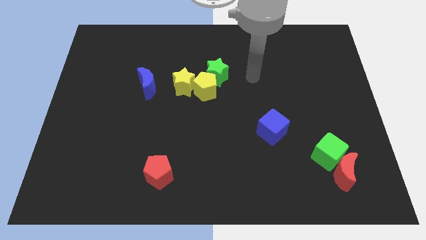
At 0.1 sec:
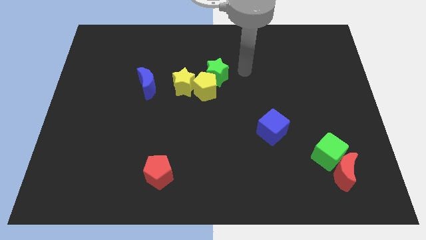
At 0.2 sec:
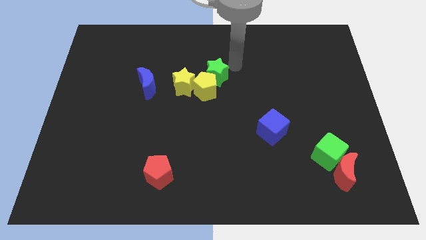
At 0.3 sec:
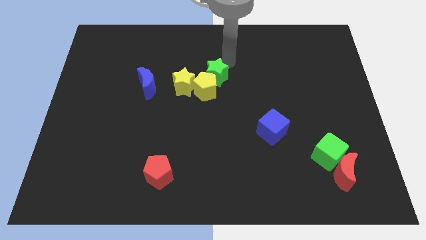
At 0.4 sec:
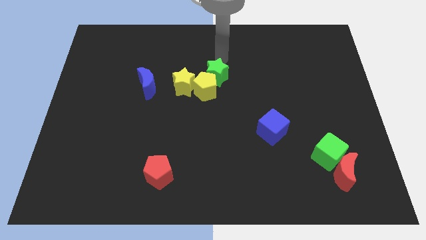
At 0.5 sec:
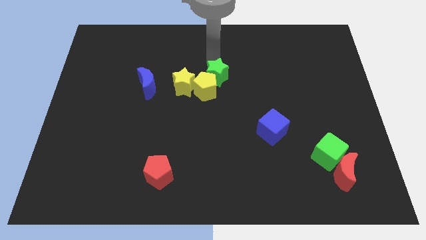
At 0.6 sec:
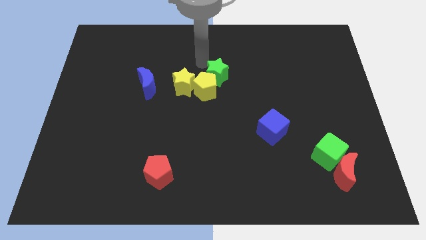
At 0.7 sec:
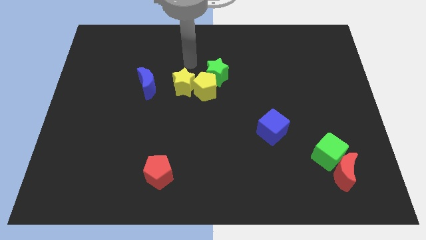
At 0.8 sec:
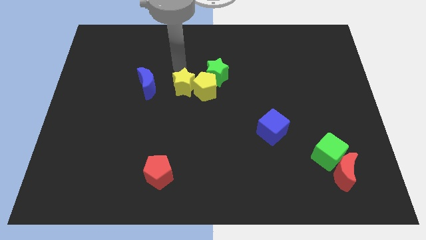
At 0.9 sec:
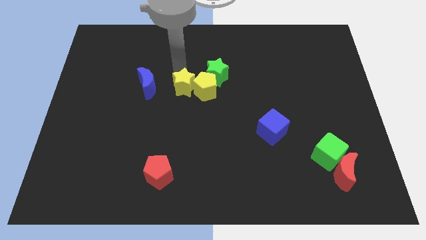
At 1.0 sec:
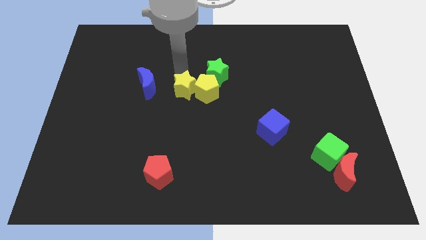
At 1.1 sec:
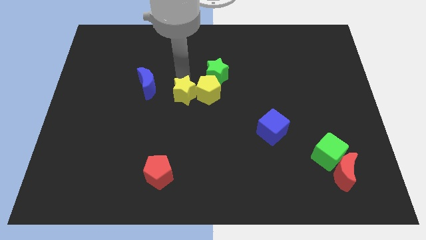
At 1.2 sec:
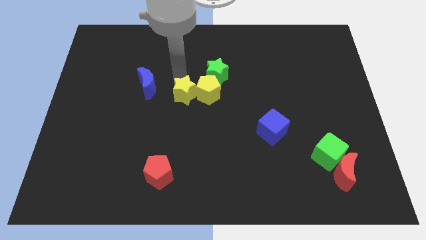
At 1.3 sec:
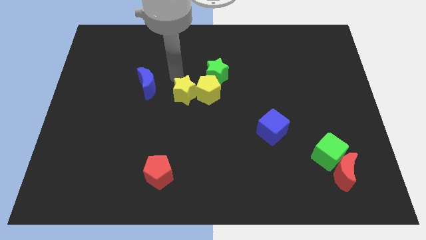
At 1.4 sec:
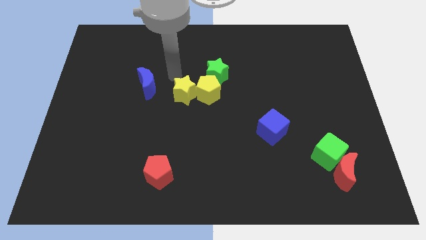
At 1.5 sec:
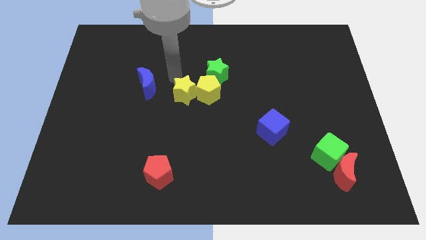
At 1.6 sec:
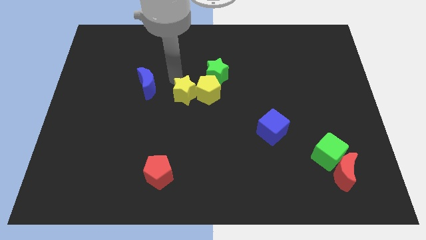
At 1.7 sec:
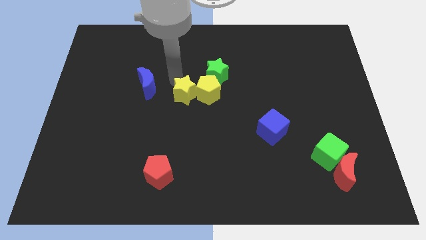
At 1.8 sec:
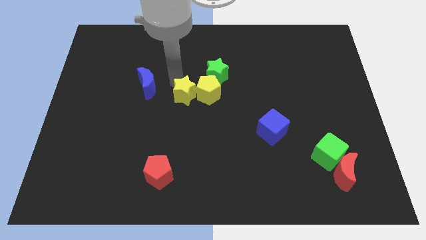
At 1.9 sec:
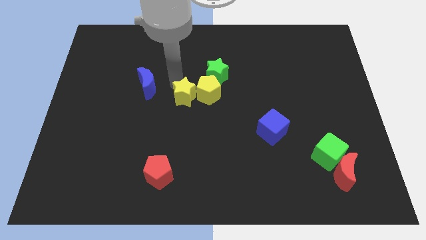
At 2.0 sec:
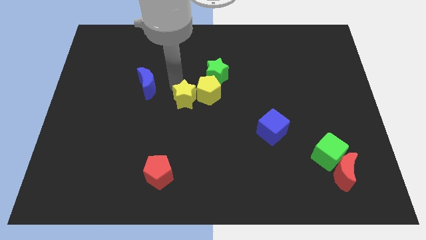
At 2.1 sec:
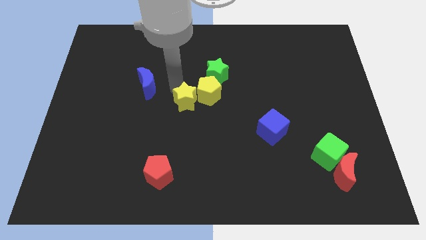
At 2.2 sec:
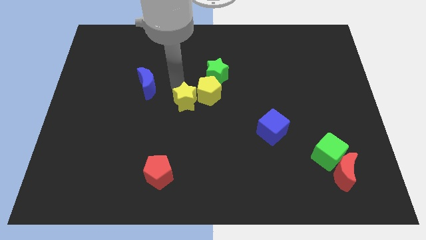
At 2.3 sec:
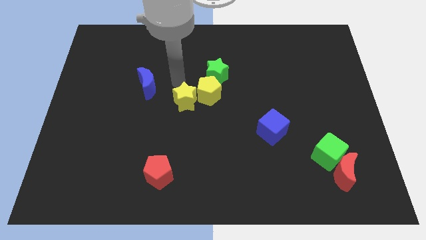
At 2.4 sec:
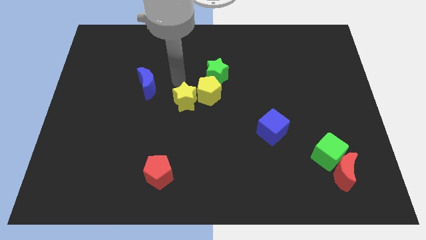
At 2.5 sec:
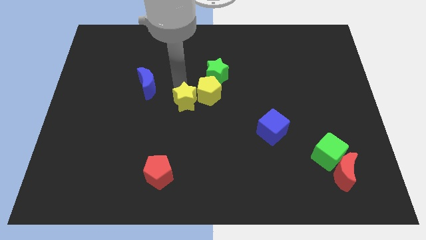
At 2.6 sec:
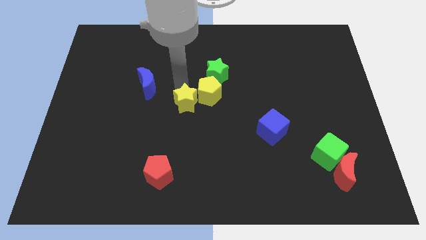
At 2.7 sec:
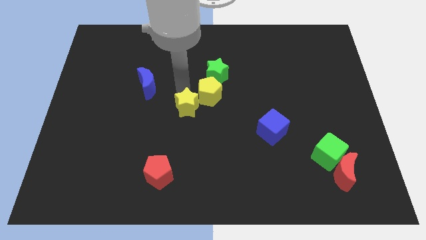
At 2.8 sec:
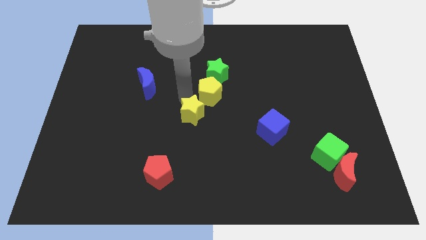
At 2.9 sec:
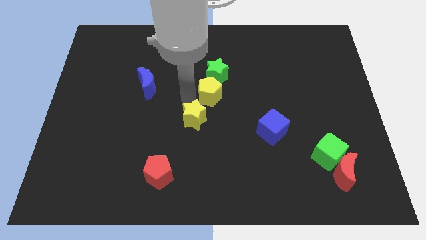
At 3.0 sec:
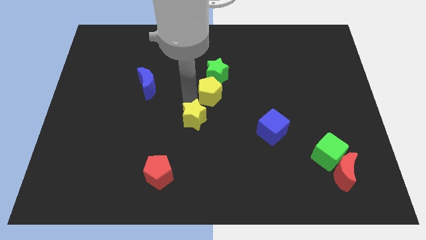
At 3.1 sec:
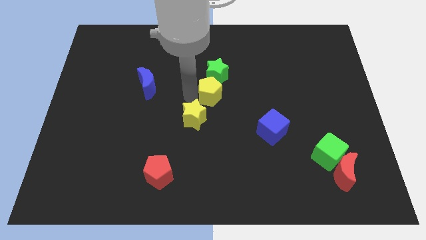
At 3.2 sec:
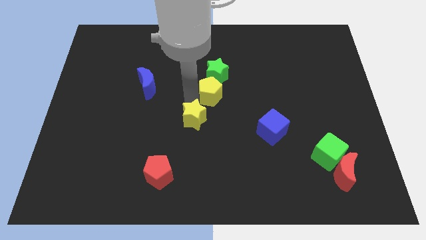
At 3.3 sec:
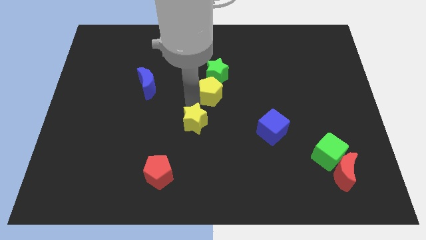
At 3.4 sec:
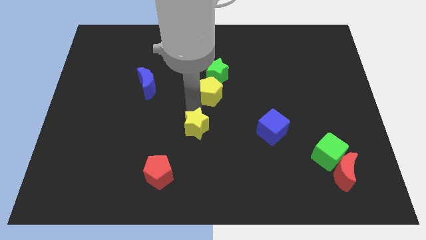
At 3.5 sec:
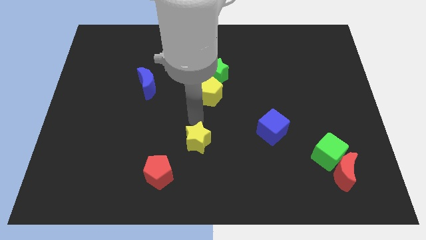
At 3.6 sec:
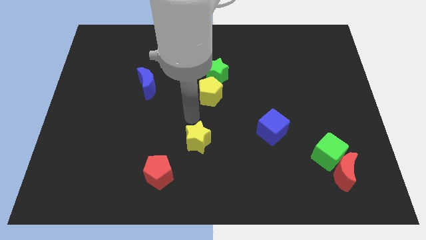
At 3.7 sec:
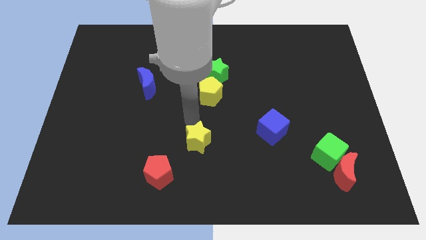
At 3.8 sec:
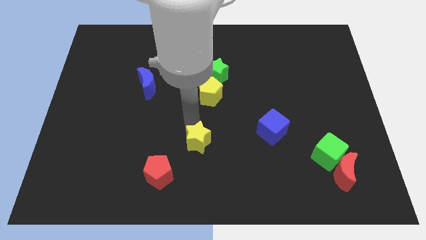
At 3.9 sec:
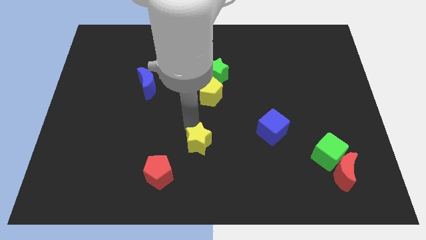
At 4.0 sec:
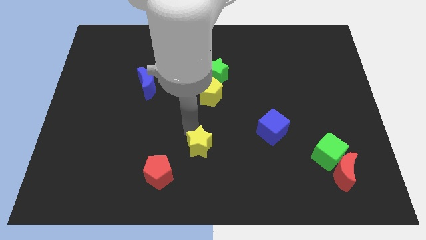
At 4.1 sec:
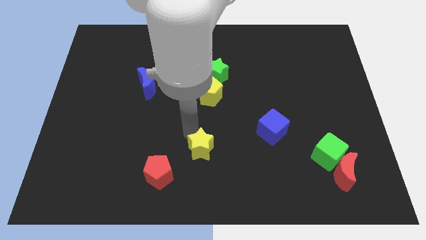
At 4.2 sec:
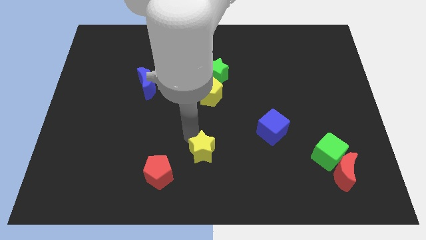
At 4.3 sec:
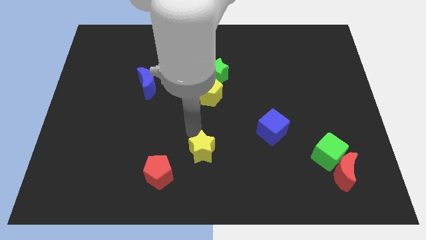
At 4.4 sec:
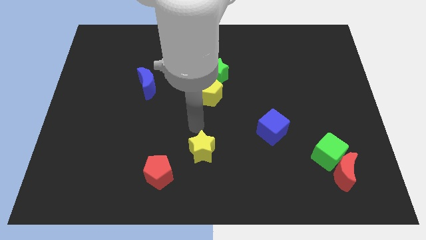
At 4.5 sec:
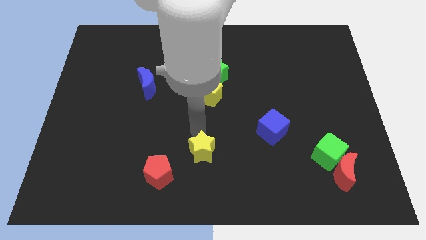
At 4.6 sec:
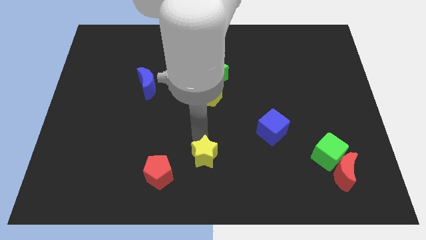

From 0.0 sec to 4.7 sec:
slide the yellow star just right of the red pentagon

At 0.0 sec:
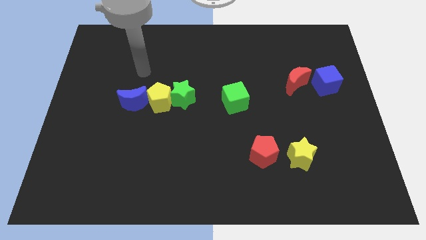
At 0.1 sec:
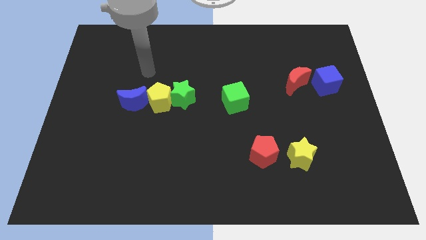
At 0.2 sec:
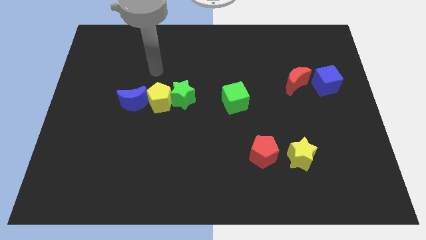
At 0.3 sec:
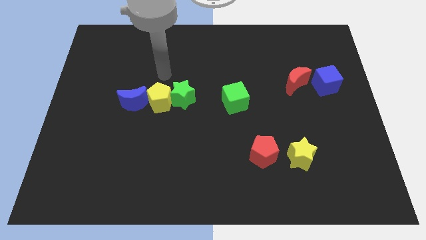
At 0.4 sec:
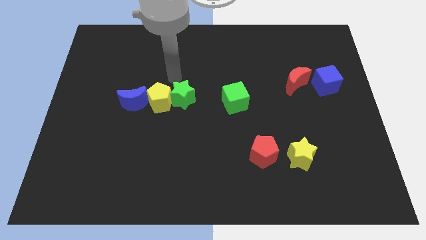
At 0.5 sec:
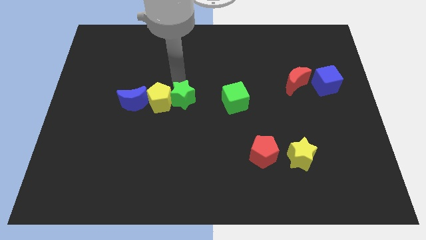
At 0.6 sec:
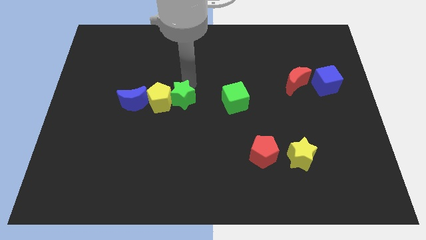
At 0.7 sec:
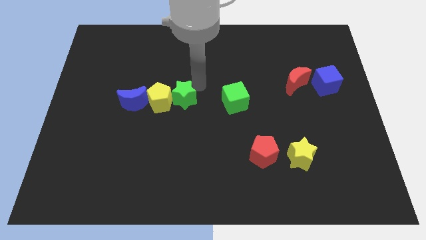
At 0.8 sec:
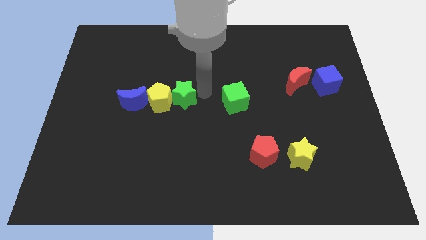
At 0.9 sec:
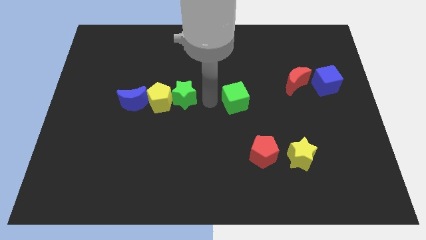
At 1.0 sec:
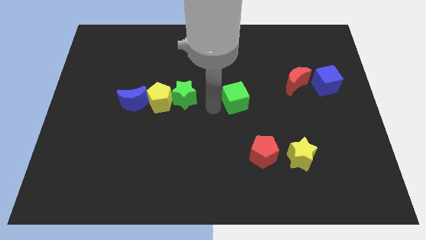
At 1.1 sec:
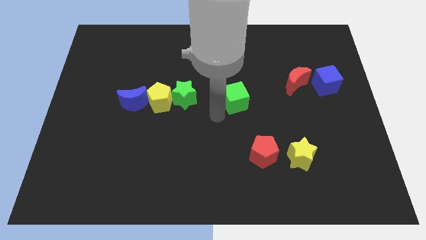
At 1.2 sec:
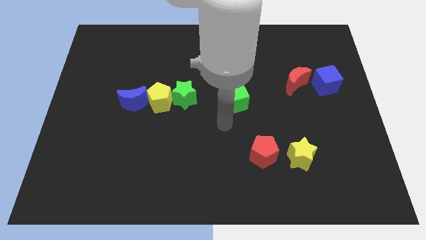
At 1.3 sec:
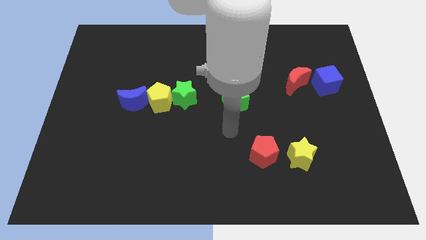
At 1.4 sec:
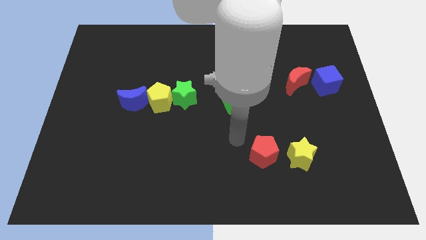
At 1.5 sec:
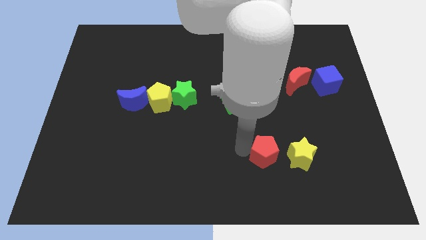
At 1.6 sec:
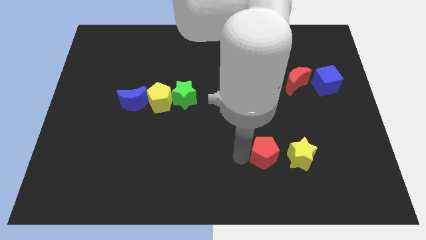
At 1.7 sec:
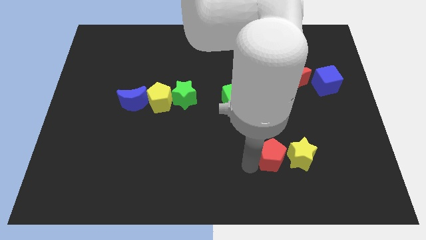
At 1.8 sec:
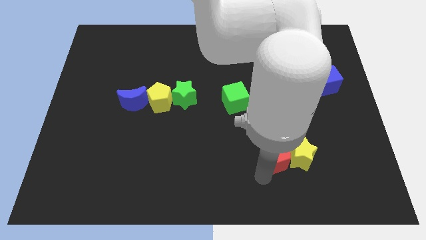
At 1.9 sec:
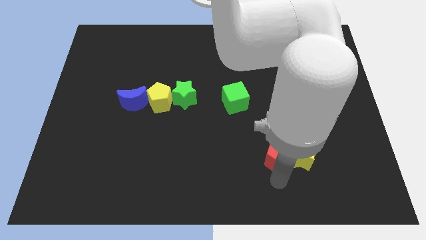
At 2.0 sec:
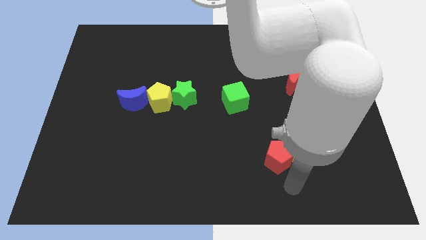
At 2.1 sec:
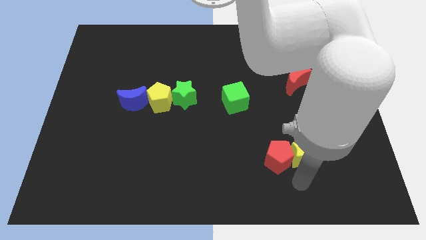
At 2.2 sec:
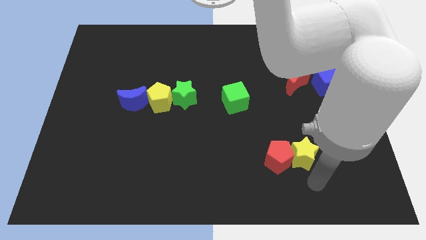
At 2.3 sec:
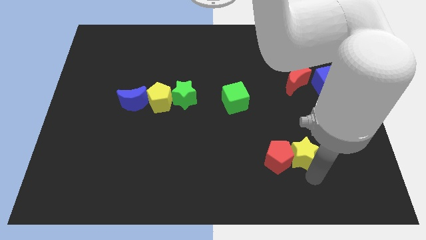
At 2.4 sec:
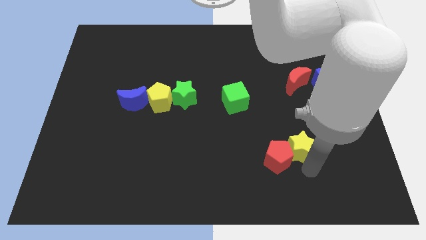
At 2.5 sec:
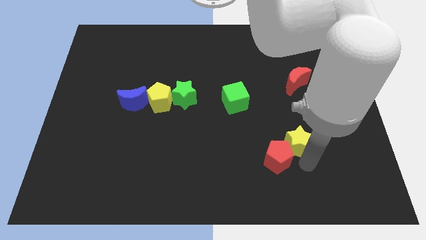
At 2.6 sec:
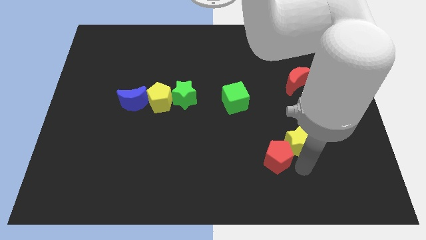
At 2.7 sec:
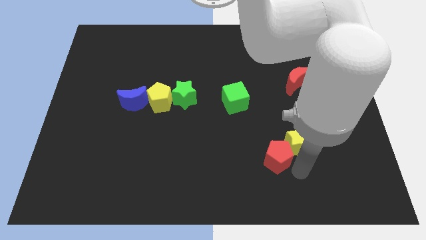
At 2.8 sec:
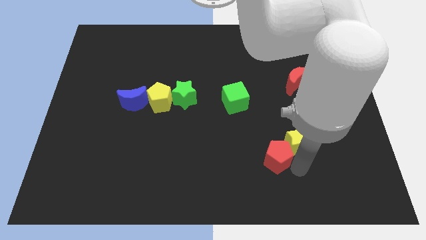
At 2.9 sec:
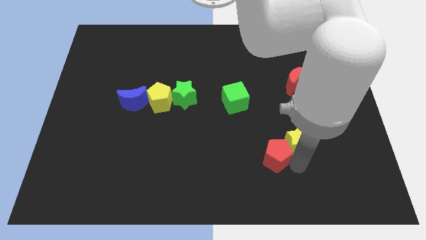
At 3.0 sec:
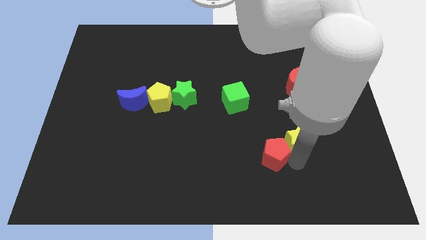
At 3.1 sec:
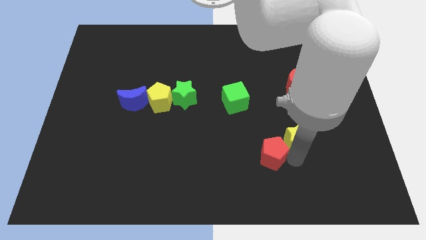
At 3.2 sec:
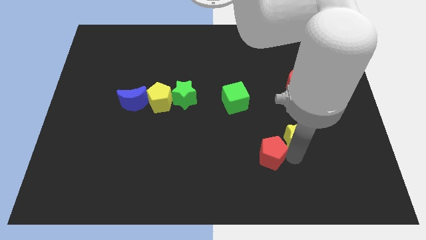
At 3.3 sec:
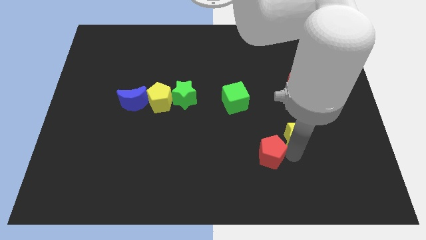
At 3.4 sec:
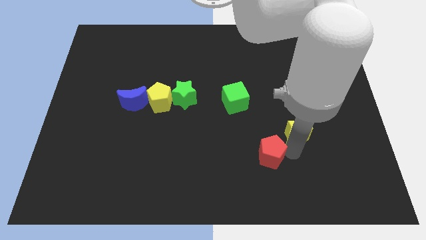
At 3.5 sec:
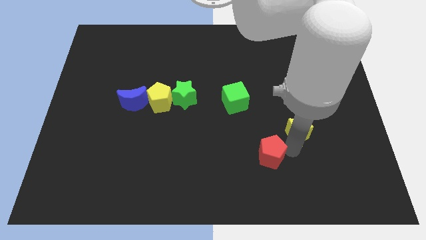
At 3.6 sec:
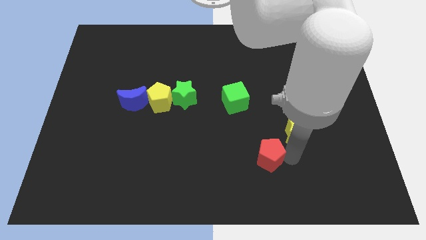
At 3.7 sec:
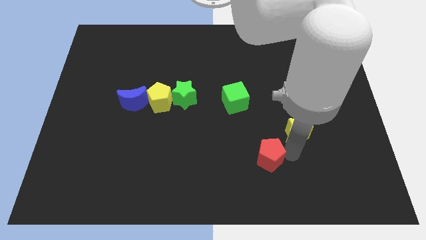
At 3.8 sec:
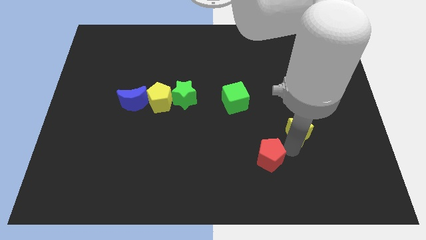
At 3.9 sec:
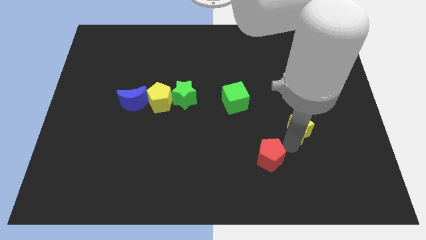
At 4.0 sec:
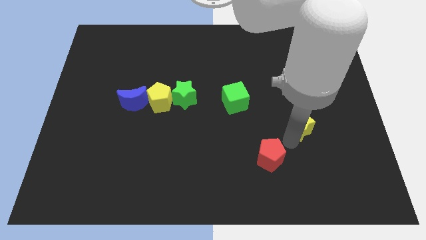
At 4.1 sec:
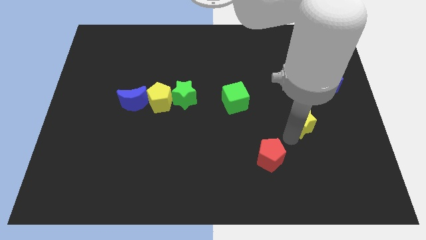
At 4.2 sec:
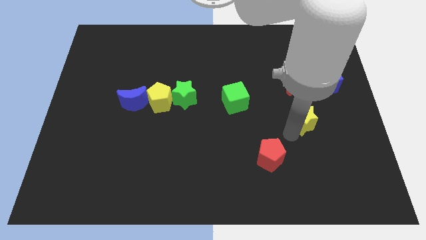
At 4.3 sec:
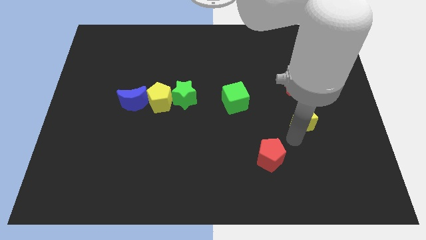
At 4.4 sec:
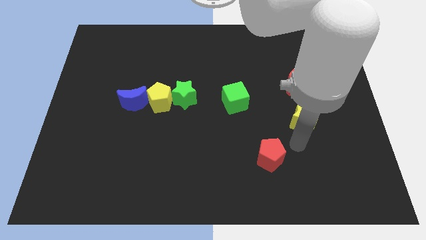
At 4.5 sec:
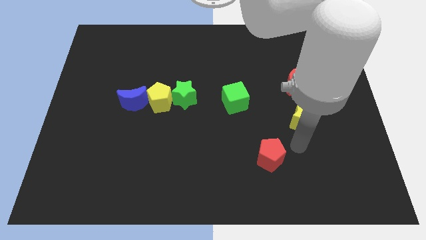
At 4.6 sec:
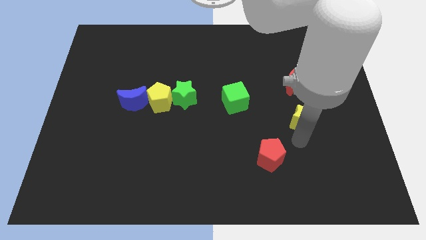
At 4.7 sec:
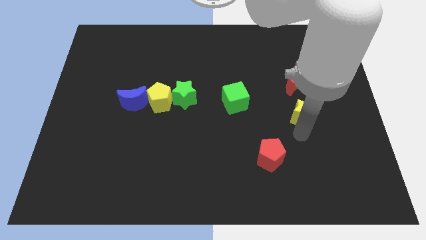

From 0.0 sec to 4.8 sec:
put the yellow star to the bottom left of the blue cube
